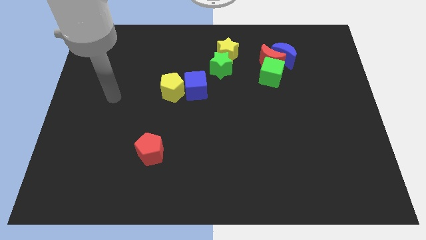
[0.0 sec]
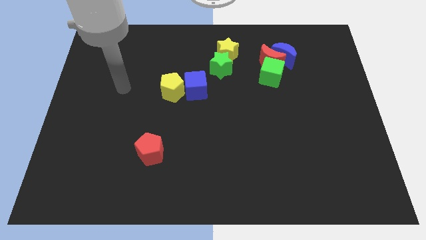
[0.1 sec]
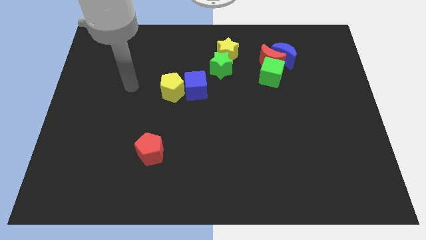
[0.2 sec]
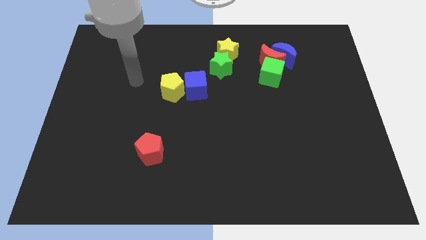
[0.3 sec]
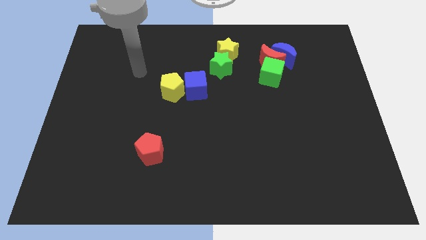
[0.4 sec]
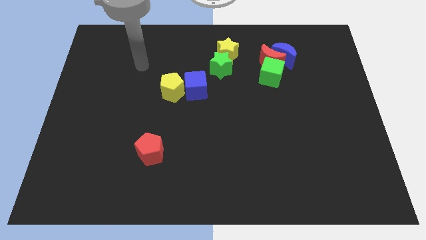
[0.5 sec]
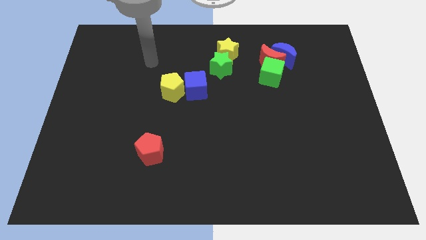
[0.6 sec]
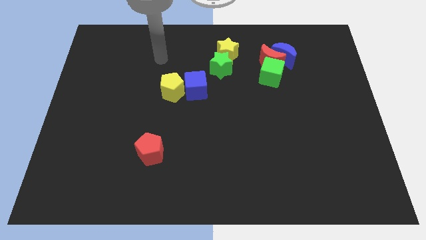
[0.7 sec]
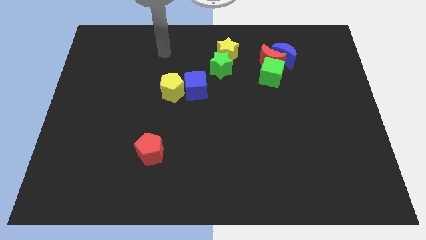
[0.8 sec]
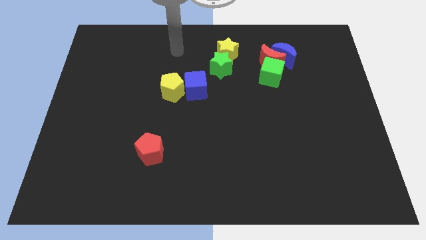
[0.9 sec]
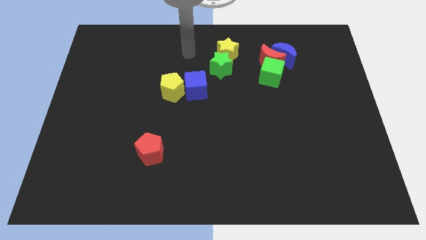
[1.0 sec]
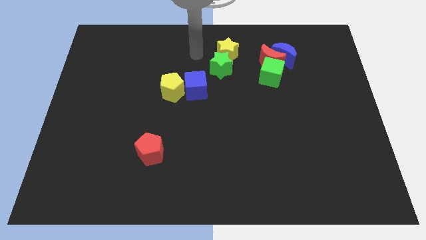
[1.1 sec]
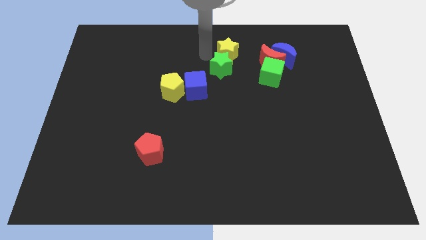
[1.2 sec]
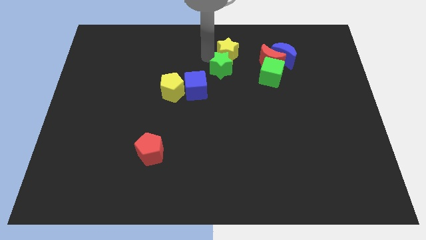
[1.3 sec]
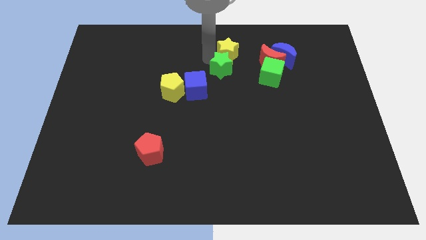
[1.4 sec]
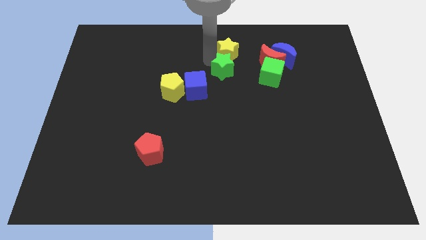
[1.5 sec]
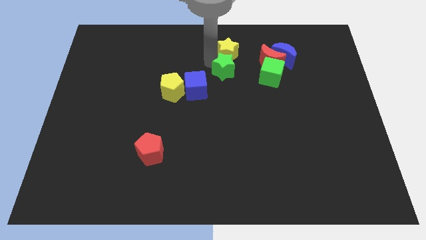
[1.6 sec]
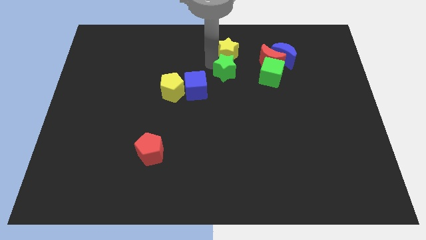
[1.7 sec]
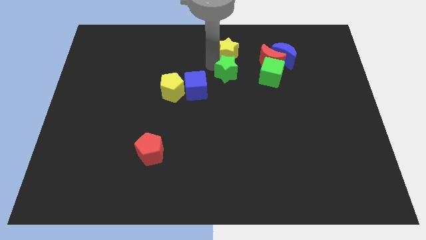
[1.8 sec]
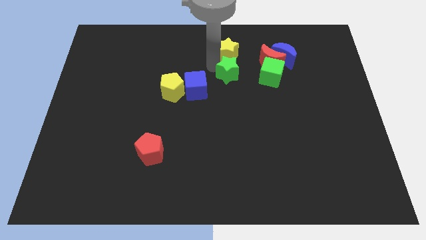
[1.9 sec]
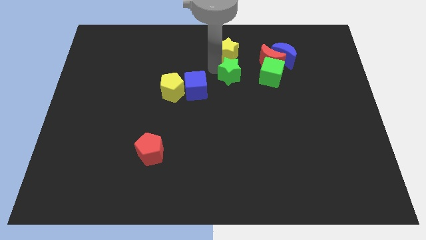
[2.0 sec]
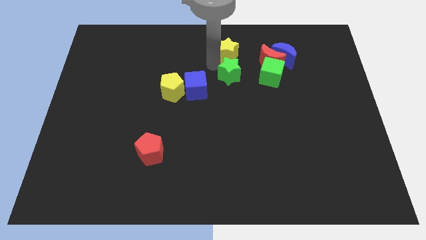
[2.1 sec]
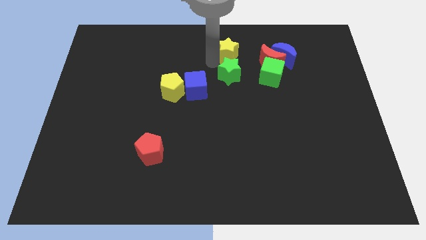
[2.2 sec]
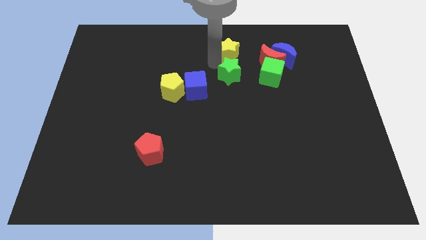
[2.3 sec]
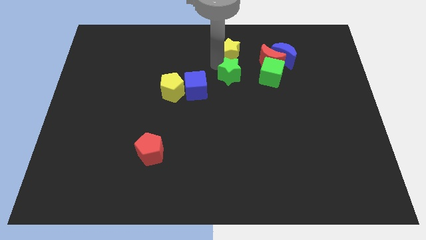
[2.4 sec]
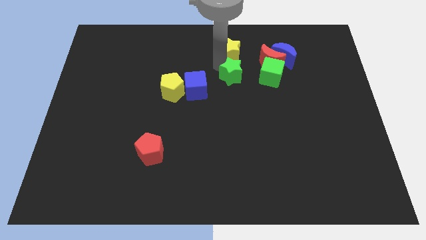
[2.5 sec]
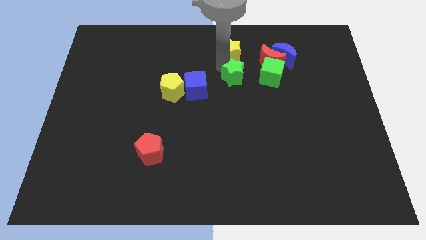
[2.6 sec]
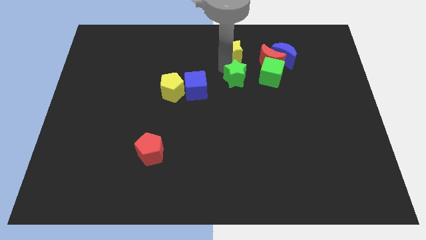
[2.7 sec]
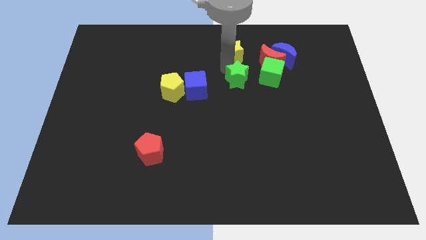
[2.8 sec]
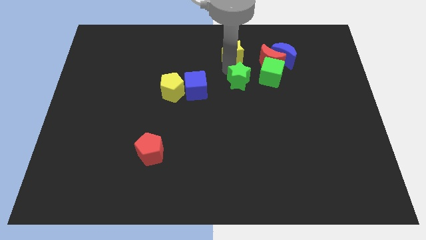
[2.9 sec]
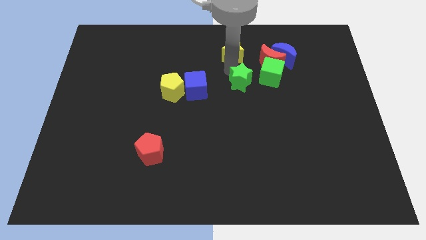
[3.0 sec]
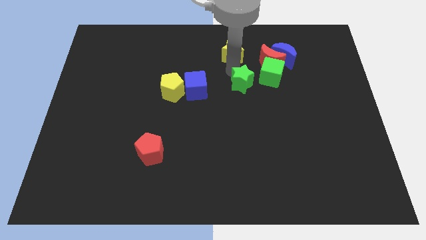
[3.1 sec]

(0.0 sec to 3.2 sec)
slide the green star a little down and right

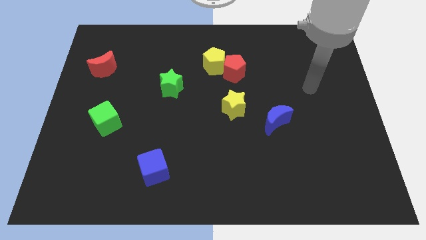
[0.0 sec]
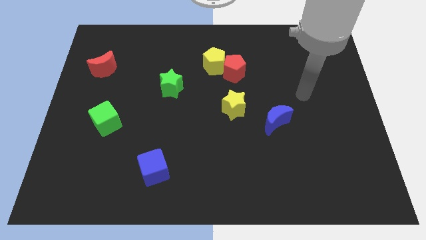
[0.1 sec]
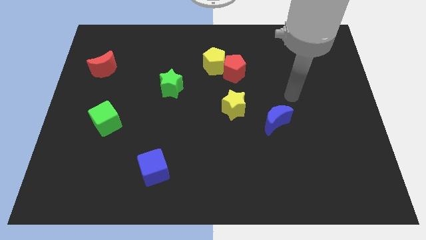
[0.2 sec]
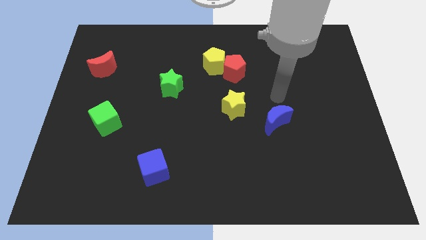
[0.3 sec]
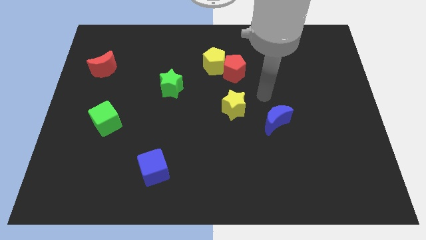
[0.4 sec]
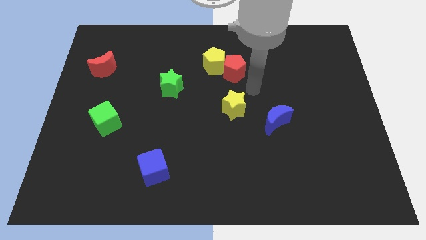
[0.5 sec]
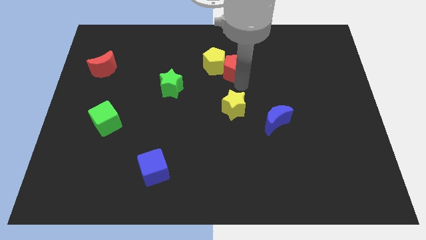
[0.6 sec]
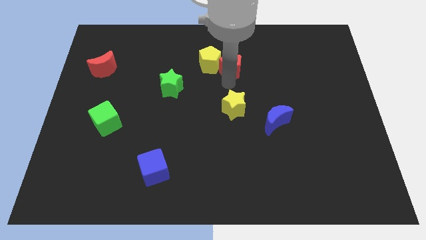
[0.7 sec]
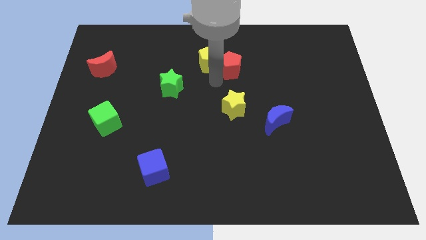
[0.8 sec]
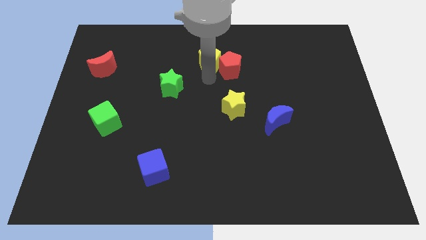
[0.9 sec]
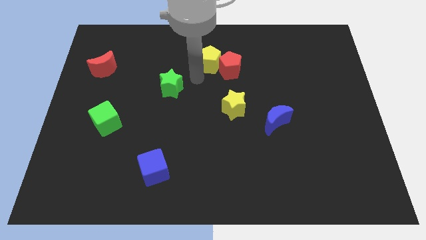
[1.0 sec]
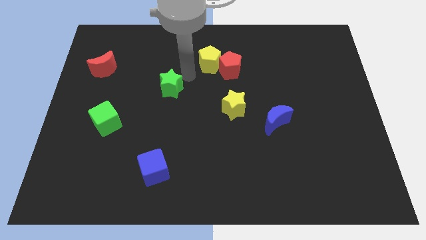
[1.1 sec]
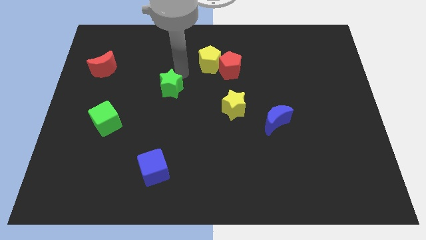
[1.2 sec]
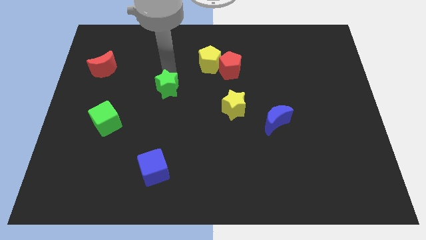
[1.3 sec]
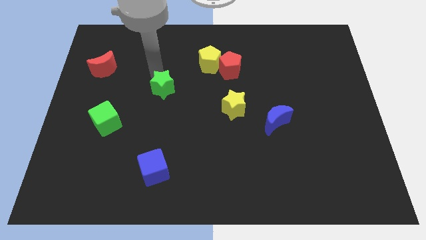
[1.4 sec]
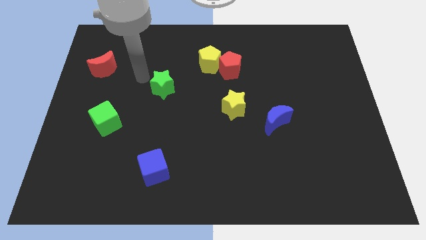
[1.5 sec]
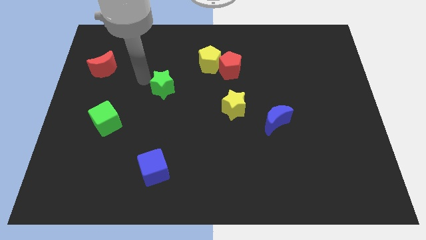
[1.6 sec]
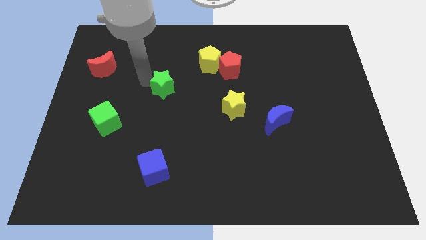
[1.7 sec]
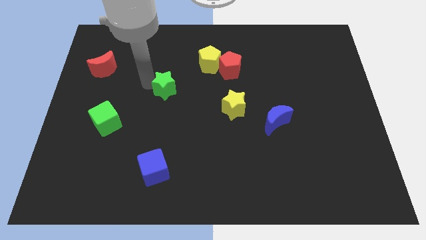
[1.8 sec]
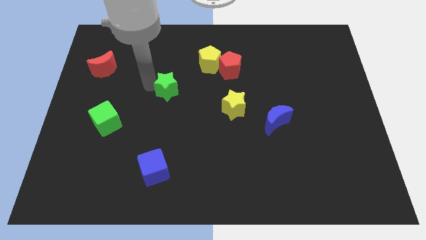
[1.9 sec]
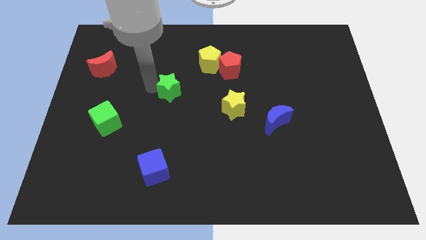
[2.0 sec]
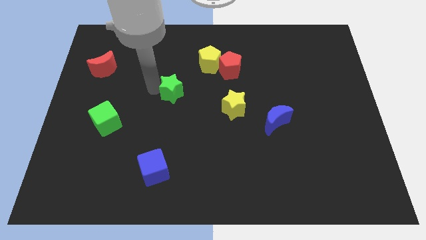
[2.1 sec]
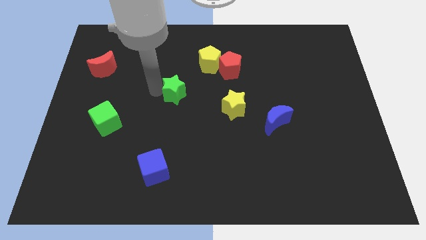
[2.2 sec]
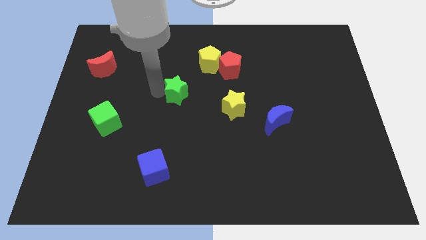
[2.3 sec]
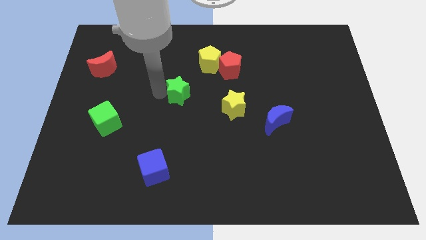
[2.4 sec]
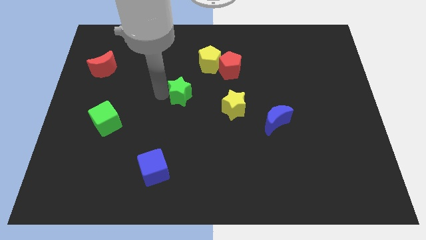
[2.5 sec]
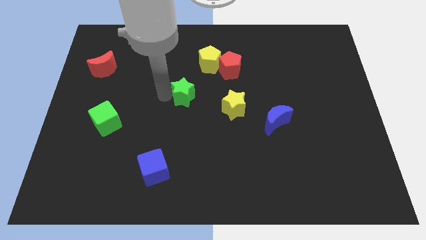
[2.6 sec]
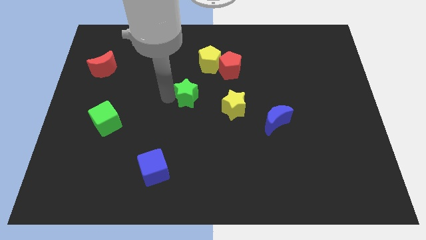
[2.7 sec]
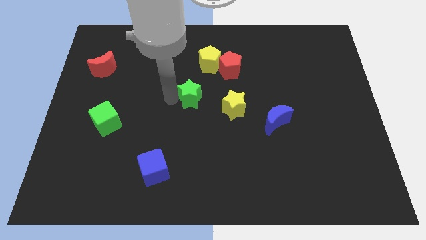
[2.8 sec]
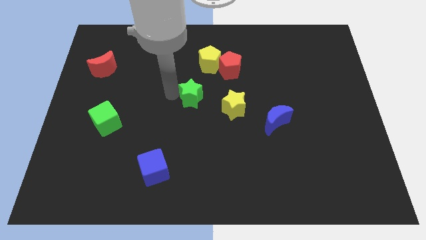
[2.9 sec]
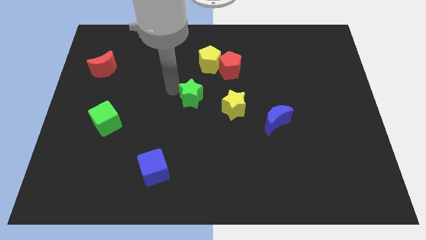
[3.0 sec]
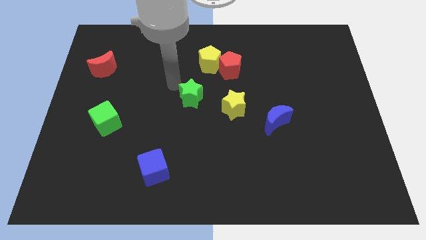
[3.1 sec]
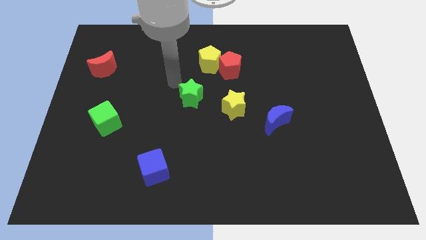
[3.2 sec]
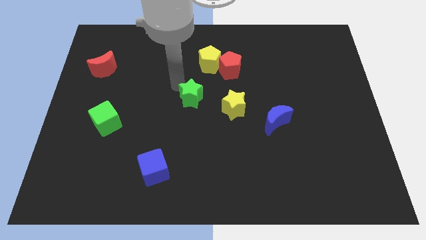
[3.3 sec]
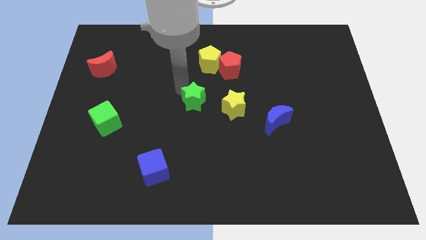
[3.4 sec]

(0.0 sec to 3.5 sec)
slightly slide the green star downwards and right

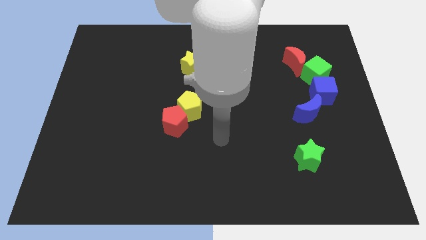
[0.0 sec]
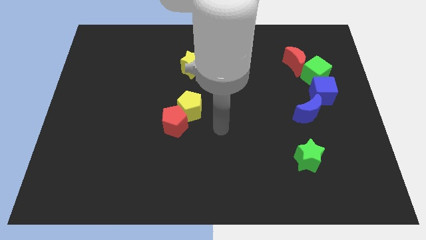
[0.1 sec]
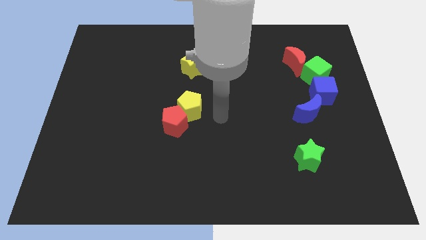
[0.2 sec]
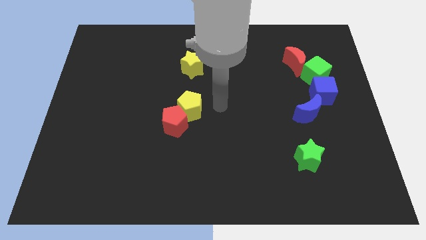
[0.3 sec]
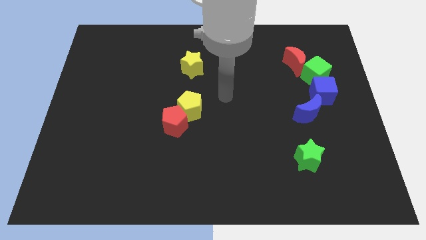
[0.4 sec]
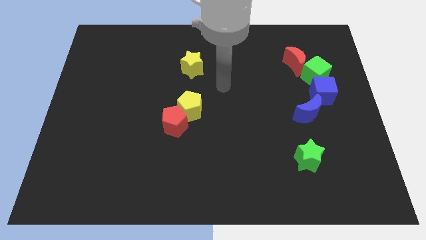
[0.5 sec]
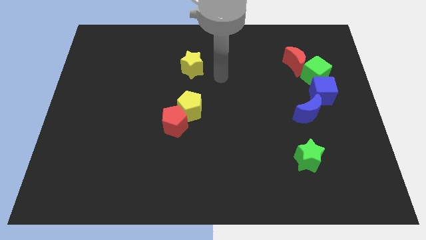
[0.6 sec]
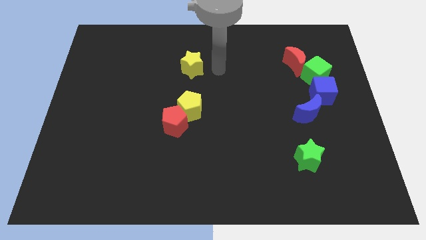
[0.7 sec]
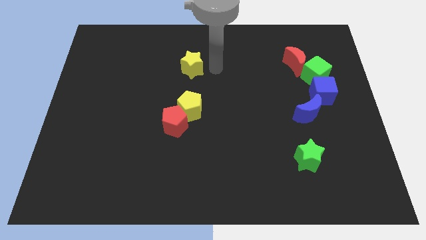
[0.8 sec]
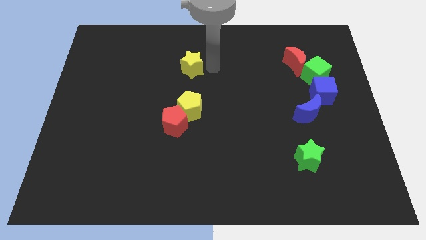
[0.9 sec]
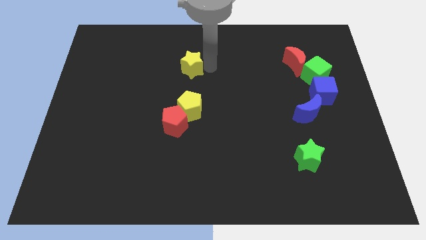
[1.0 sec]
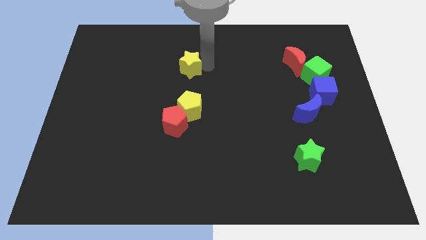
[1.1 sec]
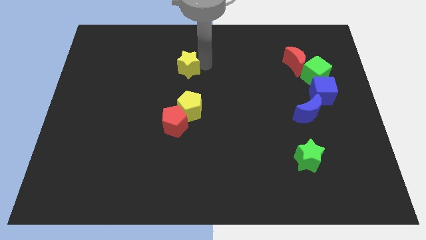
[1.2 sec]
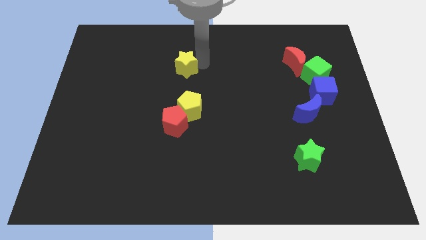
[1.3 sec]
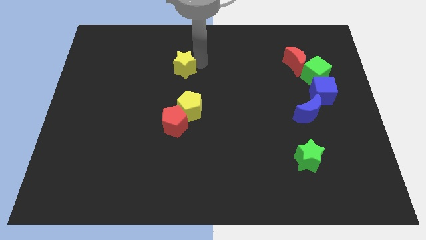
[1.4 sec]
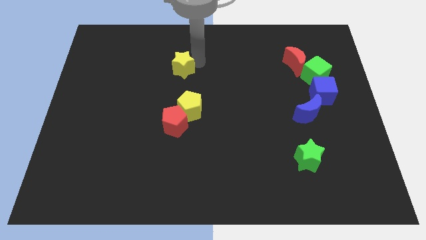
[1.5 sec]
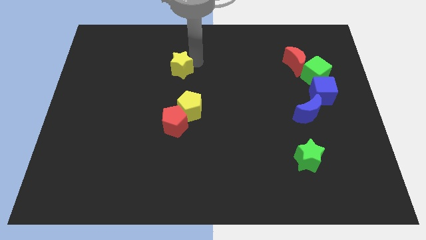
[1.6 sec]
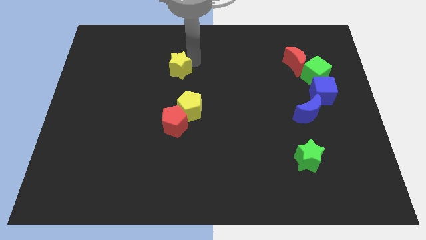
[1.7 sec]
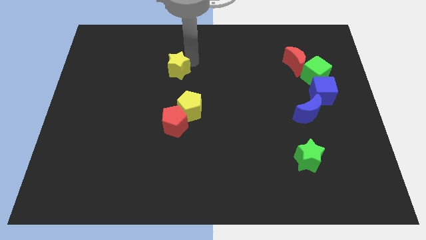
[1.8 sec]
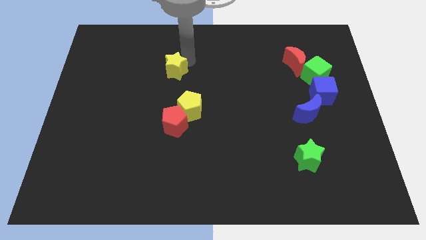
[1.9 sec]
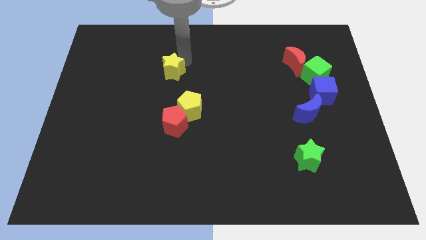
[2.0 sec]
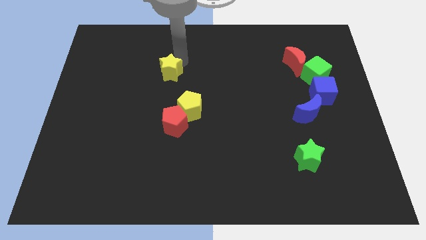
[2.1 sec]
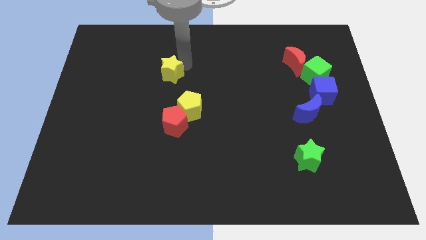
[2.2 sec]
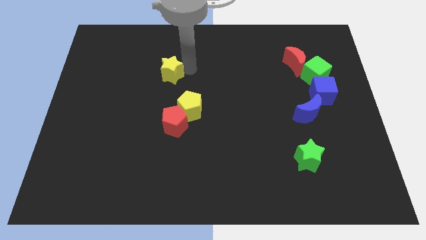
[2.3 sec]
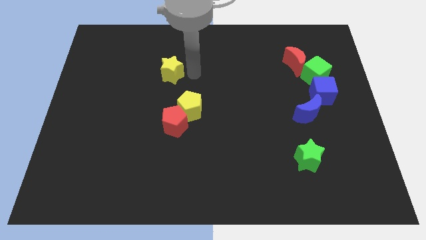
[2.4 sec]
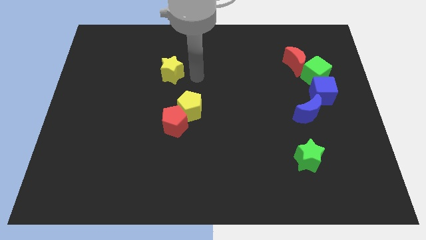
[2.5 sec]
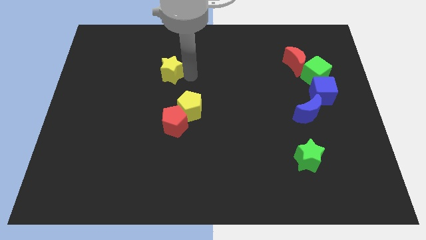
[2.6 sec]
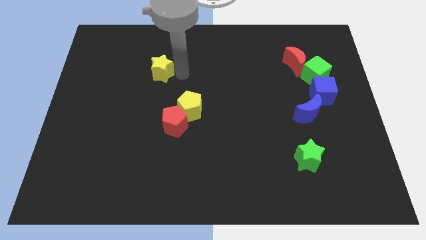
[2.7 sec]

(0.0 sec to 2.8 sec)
push the yellow star left a bit
